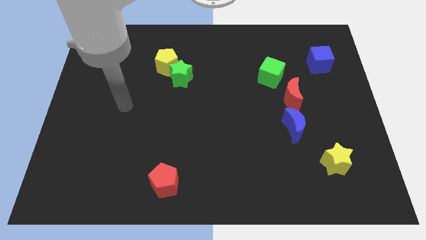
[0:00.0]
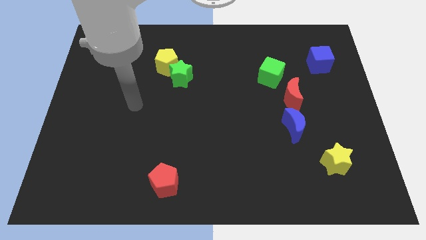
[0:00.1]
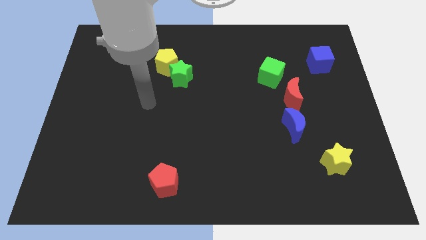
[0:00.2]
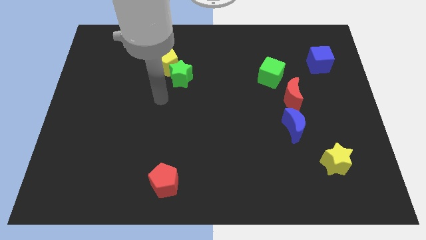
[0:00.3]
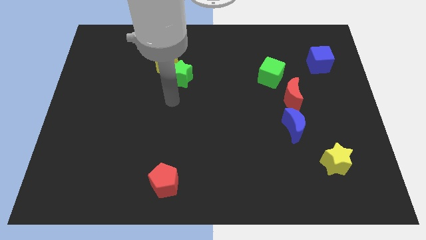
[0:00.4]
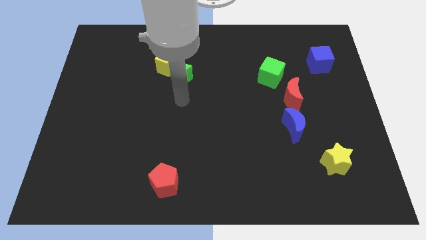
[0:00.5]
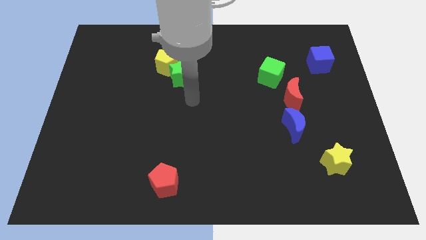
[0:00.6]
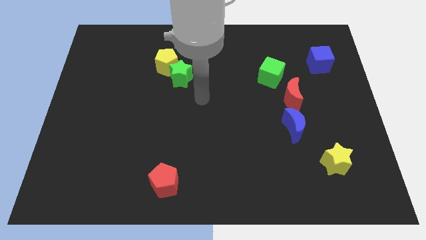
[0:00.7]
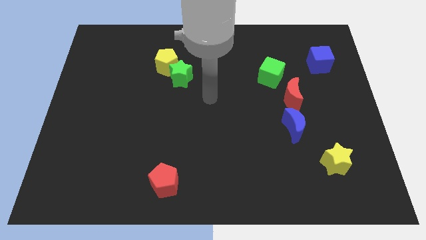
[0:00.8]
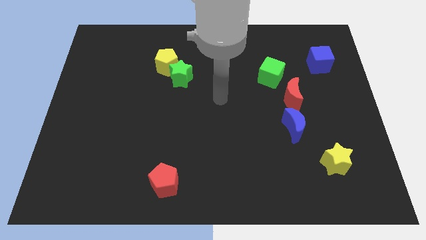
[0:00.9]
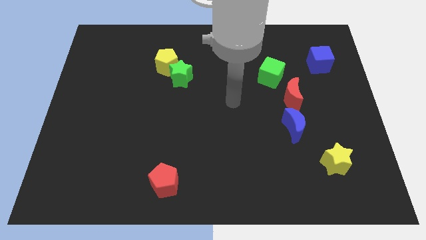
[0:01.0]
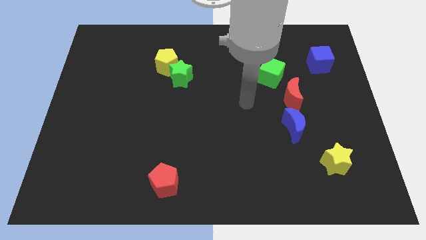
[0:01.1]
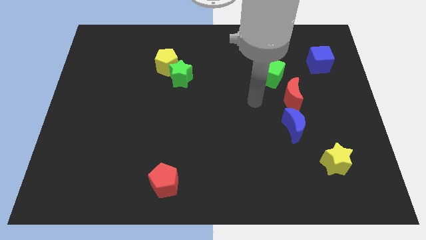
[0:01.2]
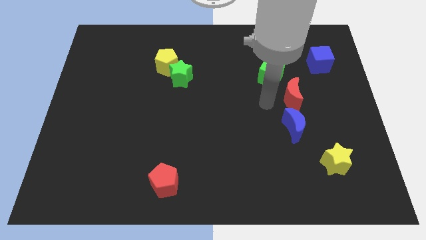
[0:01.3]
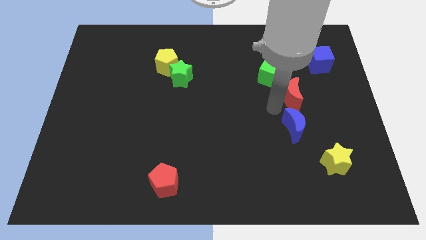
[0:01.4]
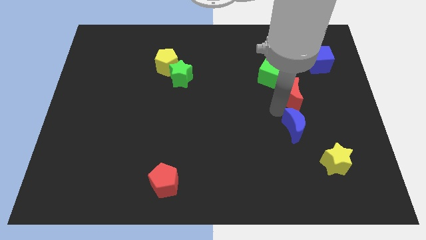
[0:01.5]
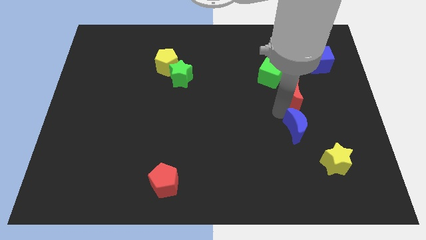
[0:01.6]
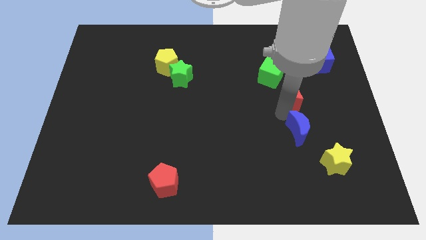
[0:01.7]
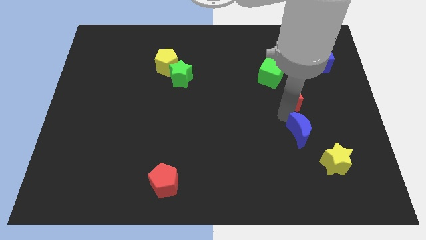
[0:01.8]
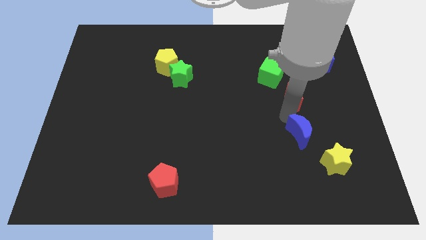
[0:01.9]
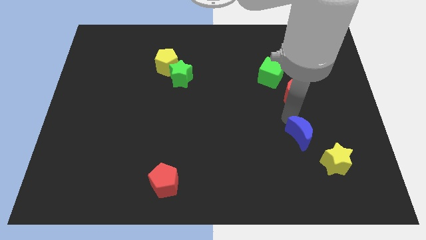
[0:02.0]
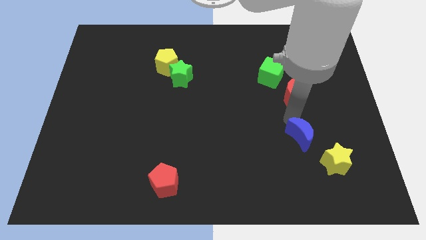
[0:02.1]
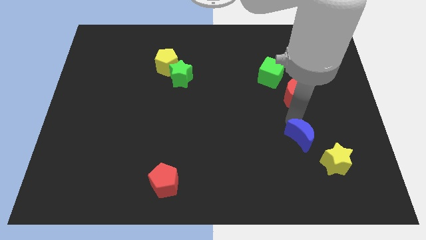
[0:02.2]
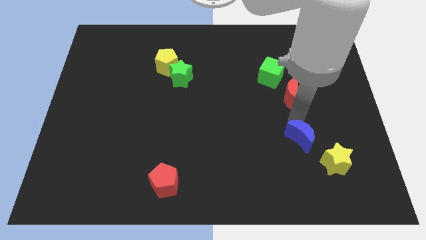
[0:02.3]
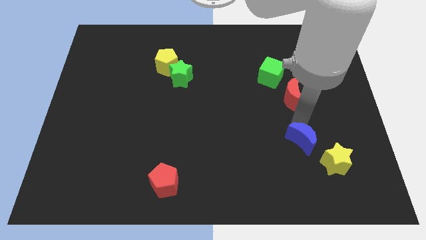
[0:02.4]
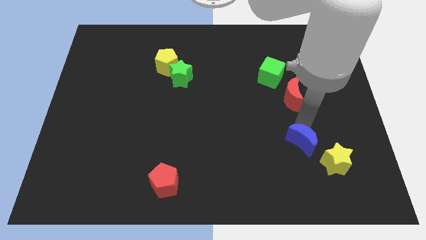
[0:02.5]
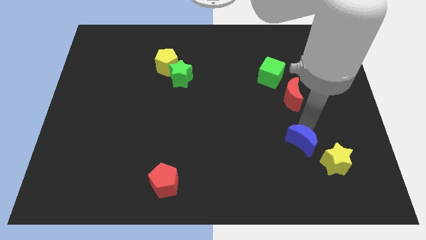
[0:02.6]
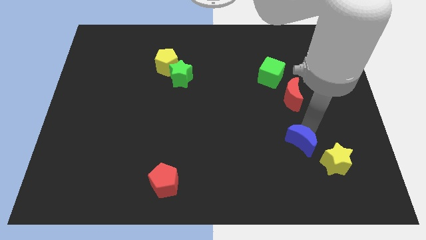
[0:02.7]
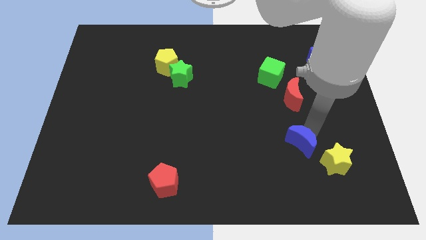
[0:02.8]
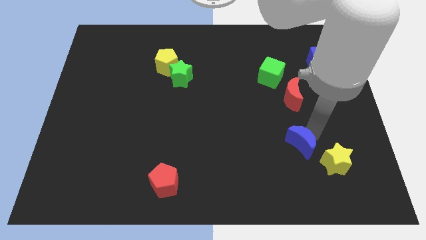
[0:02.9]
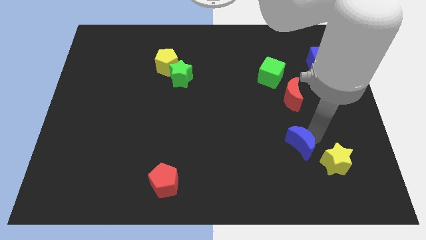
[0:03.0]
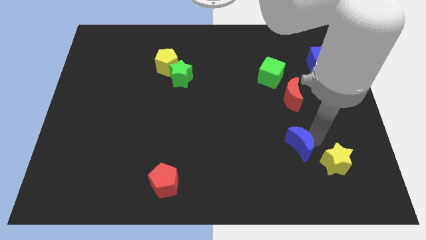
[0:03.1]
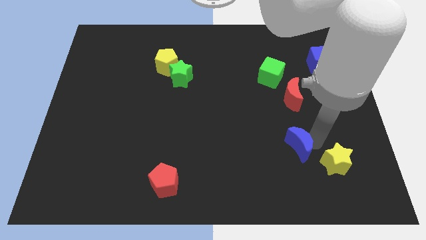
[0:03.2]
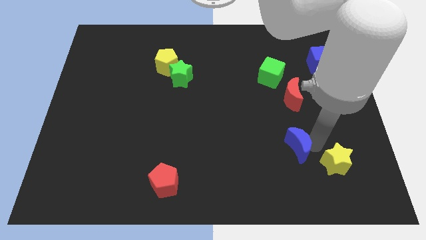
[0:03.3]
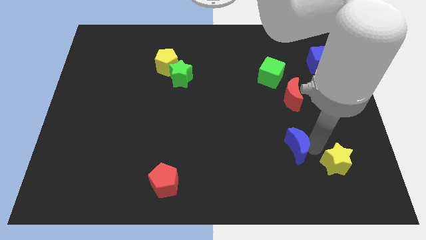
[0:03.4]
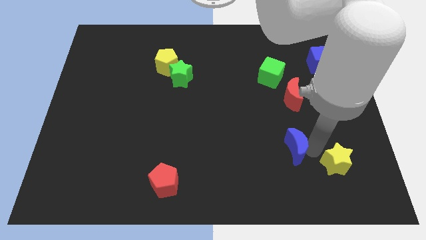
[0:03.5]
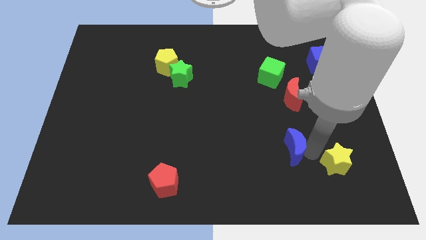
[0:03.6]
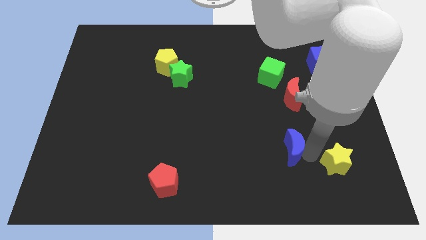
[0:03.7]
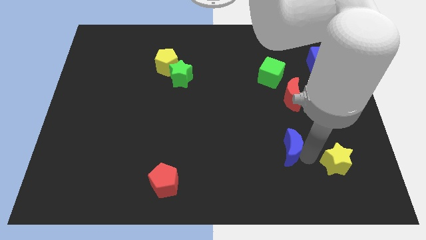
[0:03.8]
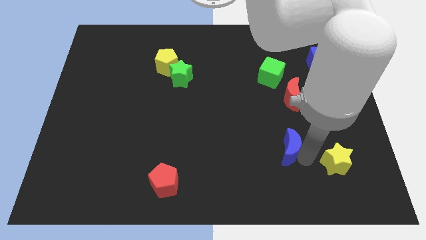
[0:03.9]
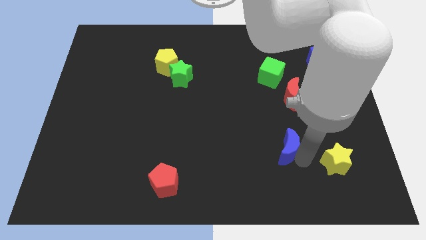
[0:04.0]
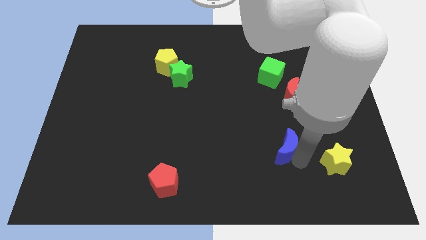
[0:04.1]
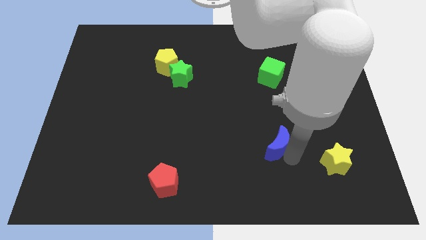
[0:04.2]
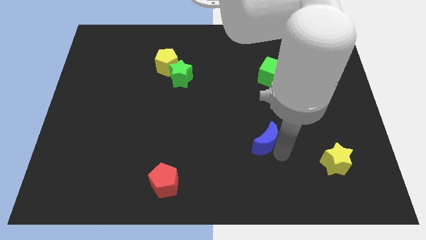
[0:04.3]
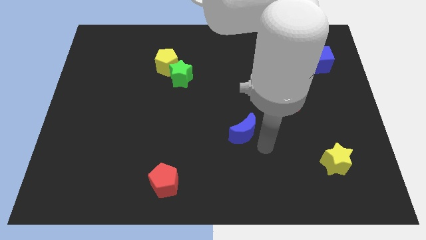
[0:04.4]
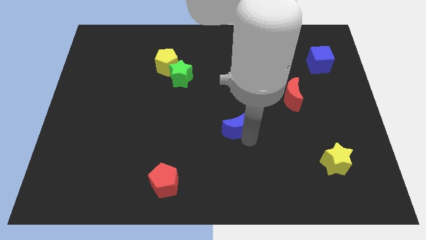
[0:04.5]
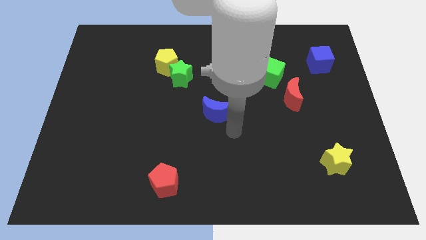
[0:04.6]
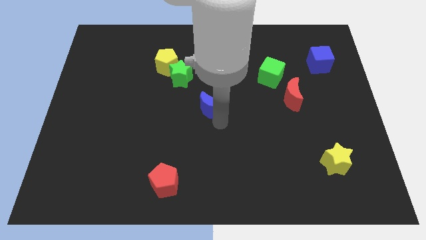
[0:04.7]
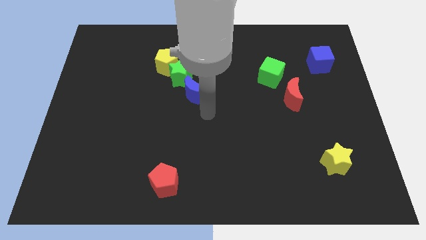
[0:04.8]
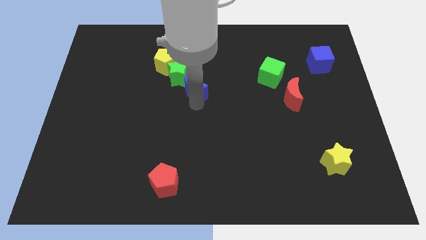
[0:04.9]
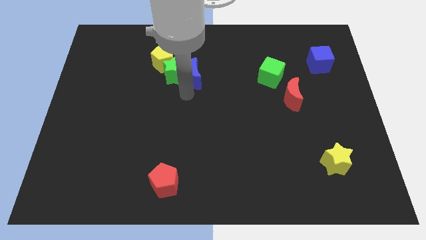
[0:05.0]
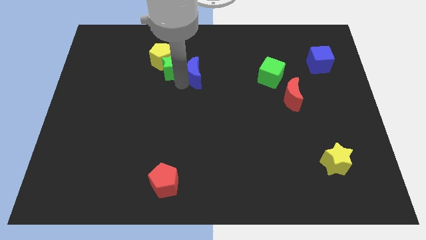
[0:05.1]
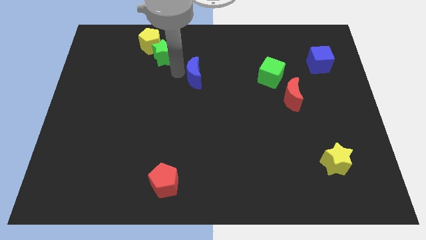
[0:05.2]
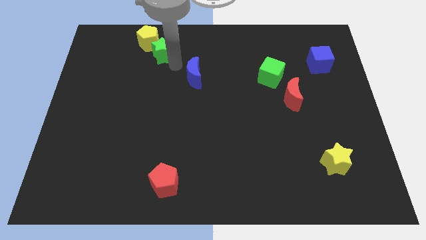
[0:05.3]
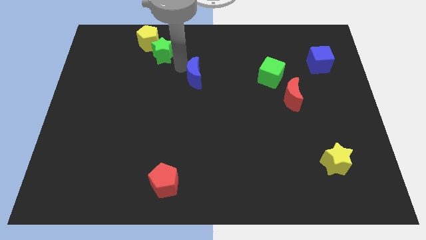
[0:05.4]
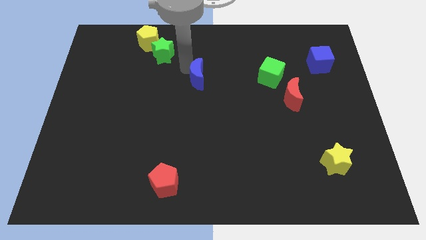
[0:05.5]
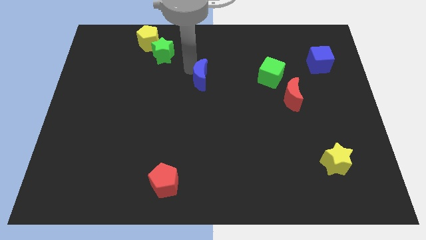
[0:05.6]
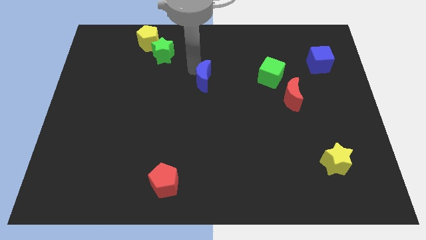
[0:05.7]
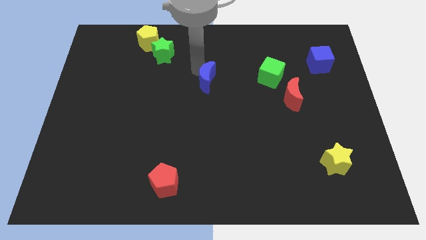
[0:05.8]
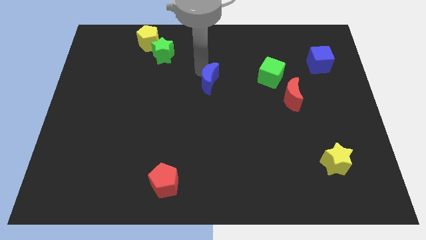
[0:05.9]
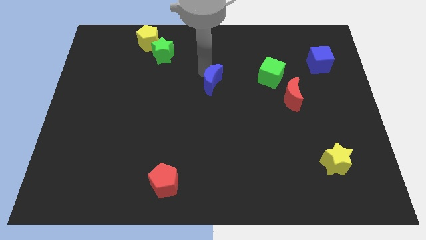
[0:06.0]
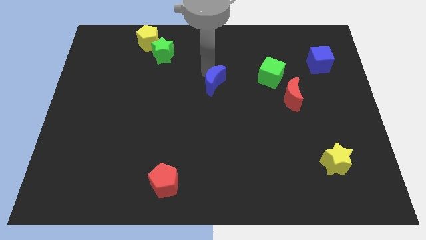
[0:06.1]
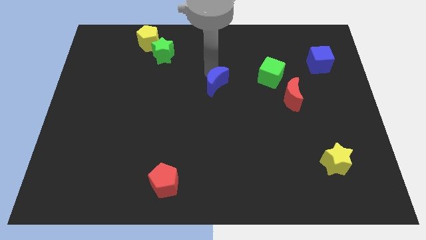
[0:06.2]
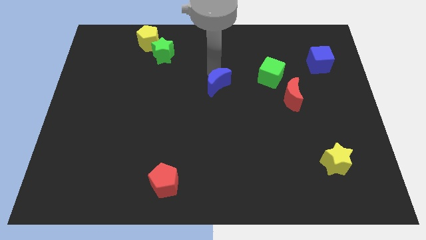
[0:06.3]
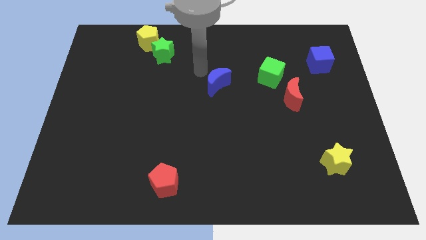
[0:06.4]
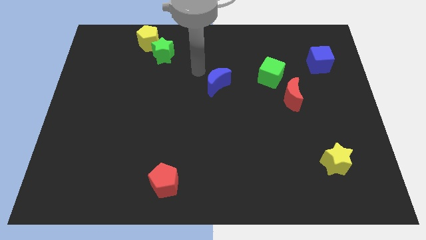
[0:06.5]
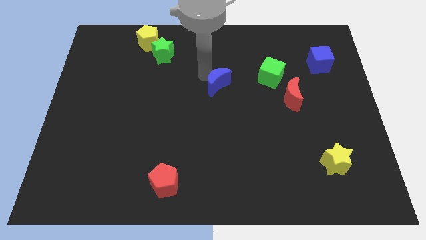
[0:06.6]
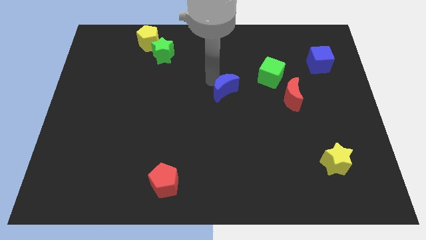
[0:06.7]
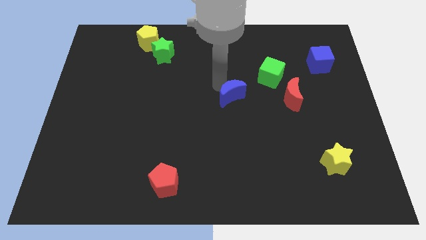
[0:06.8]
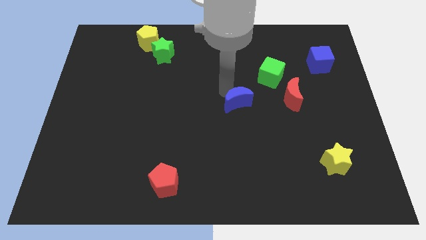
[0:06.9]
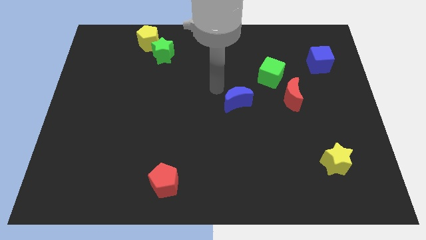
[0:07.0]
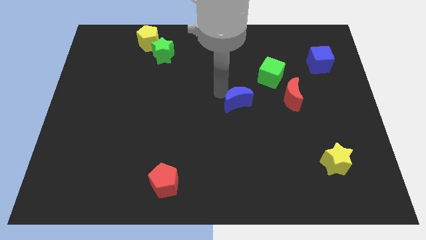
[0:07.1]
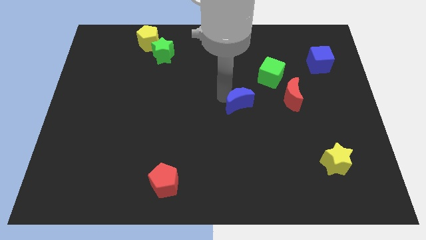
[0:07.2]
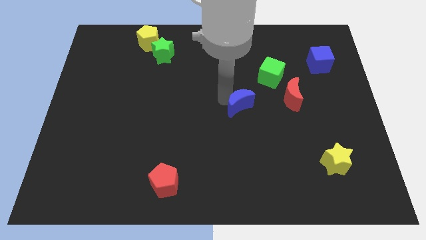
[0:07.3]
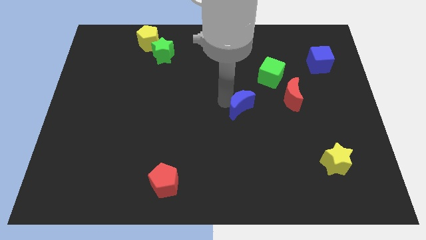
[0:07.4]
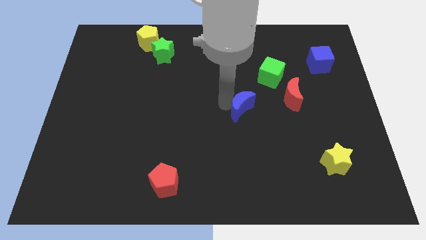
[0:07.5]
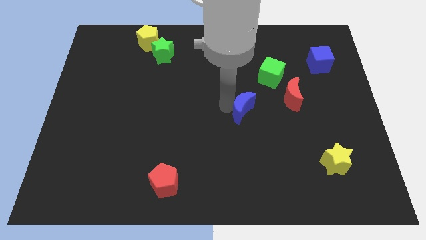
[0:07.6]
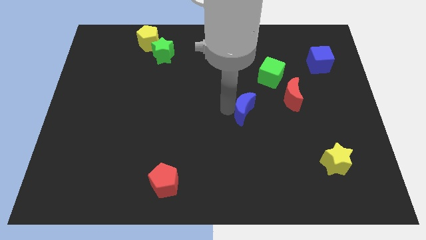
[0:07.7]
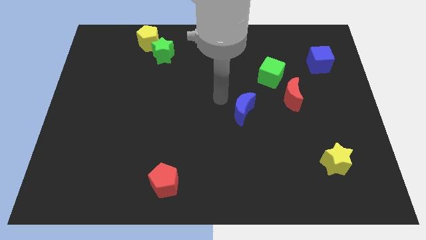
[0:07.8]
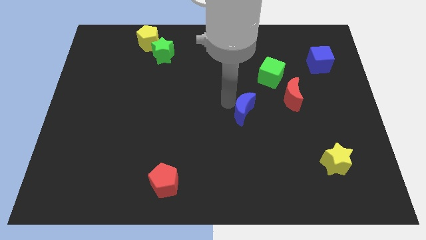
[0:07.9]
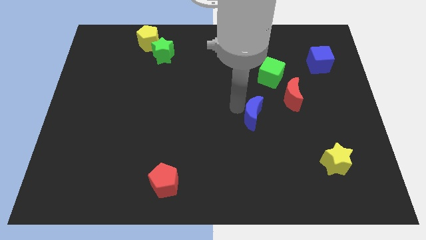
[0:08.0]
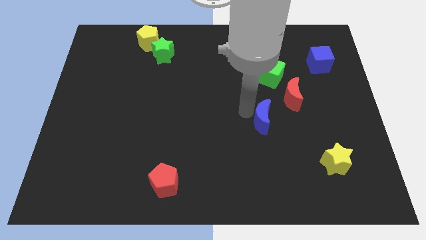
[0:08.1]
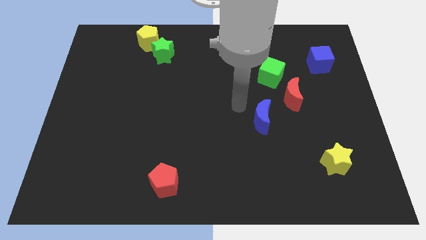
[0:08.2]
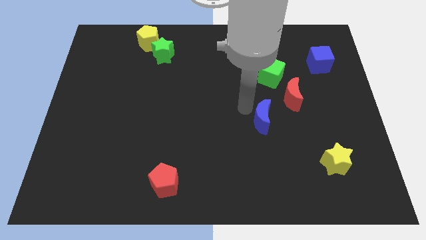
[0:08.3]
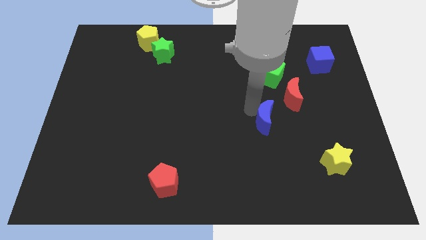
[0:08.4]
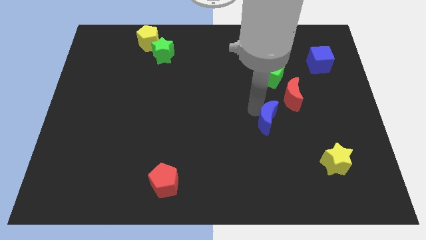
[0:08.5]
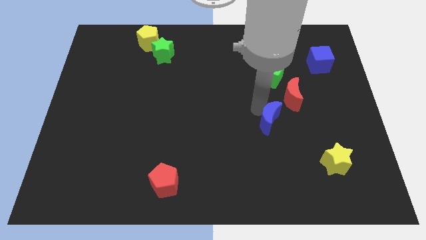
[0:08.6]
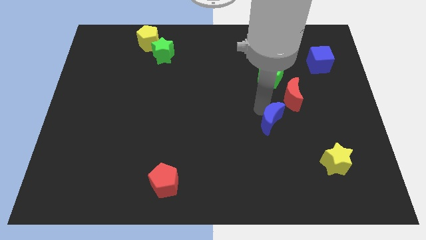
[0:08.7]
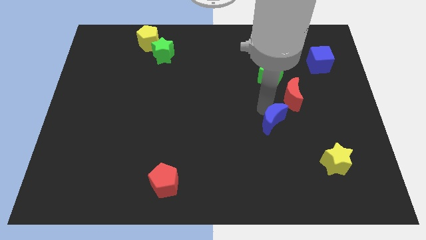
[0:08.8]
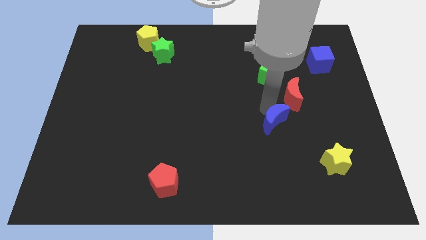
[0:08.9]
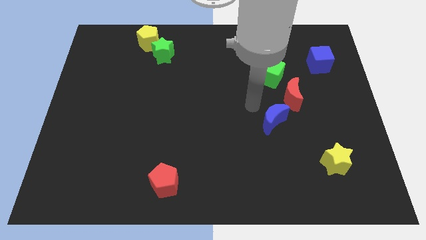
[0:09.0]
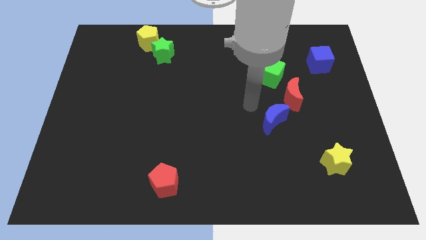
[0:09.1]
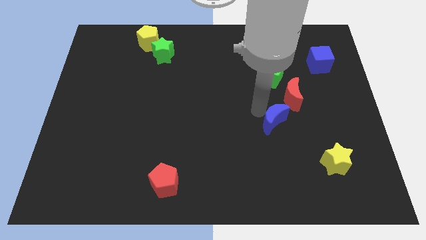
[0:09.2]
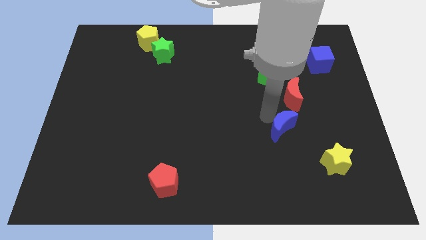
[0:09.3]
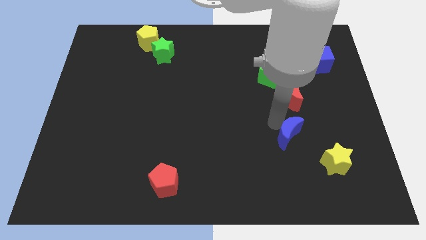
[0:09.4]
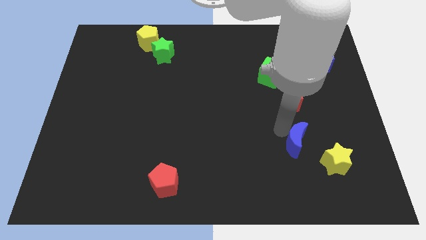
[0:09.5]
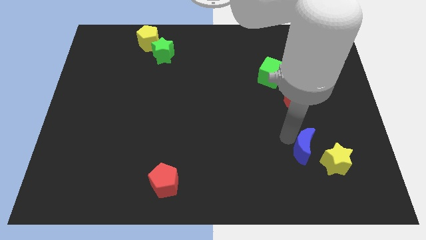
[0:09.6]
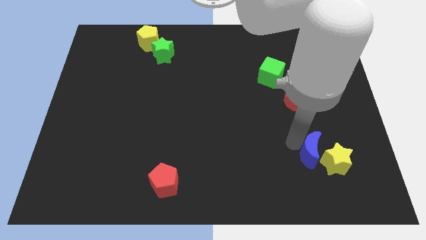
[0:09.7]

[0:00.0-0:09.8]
slide the blue moon to the yellow star
